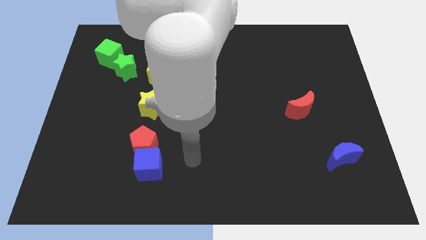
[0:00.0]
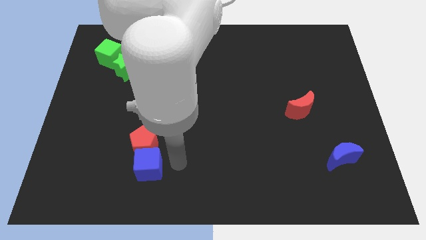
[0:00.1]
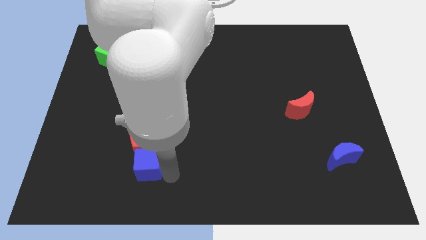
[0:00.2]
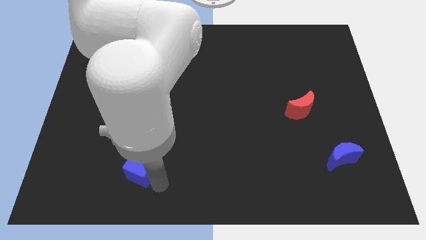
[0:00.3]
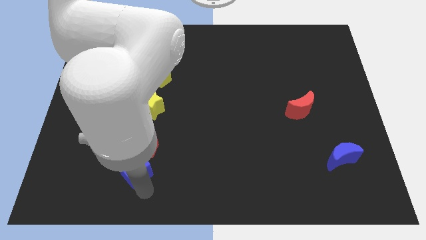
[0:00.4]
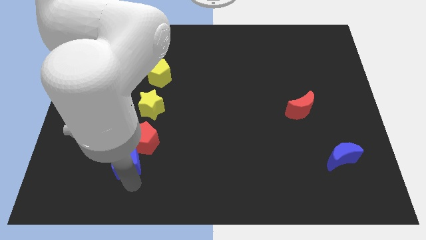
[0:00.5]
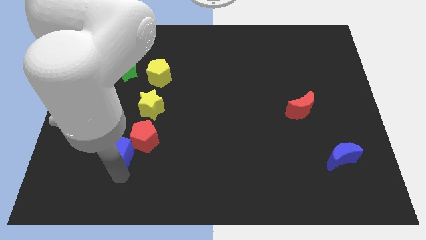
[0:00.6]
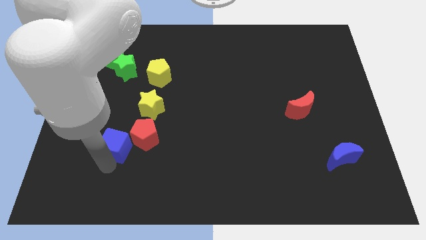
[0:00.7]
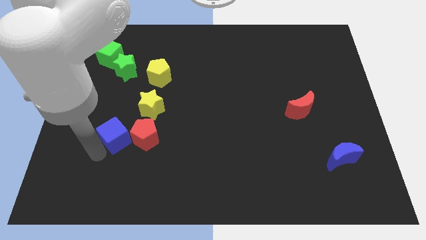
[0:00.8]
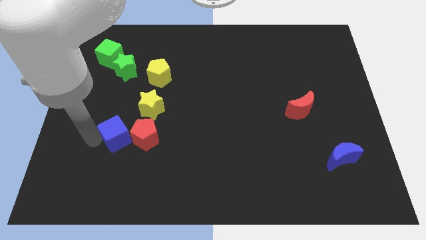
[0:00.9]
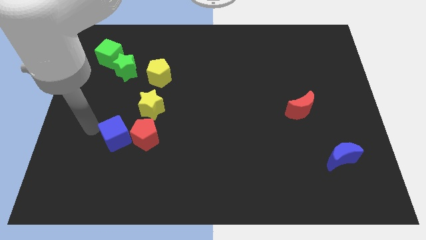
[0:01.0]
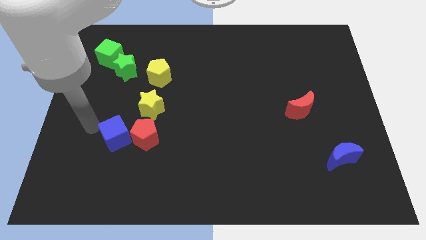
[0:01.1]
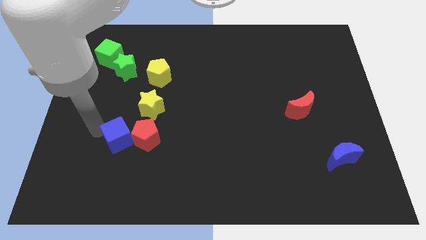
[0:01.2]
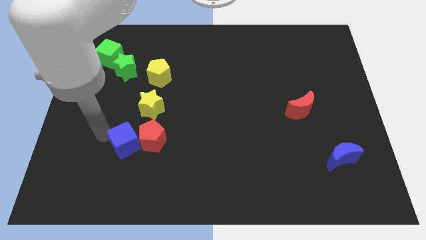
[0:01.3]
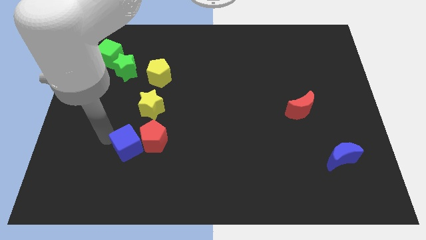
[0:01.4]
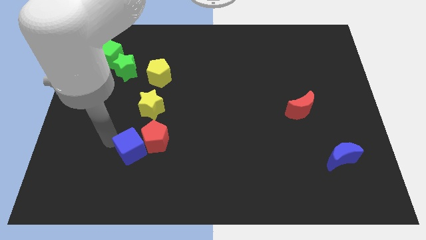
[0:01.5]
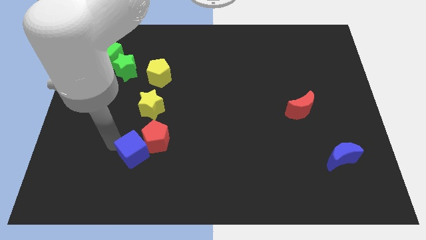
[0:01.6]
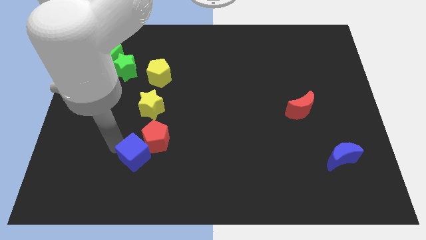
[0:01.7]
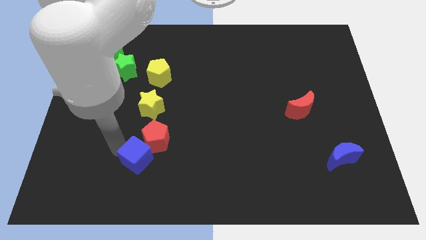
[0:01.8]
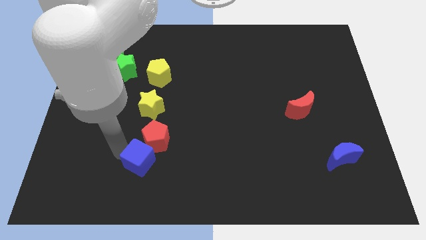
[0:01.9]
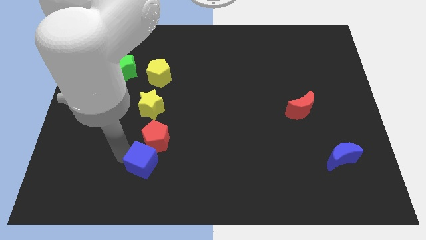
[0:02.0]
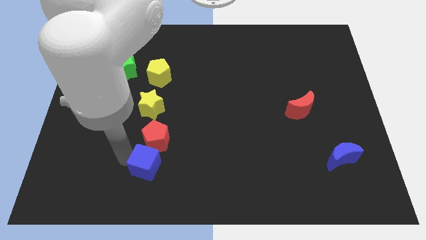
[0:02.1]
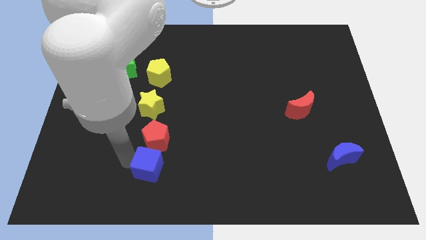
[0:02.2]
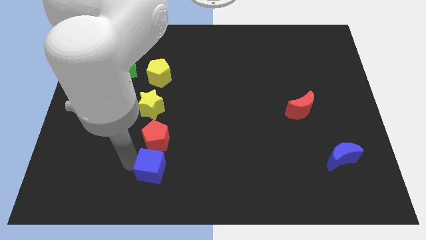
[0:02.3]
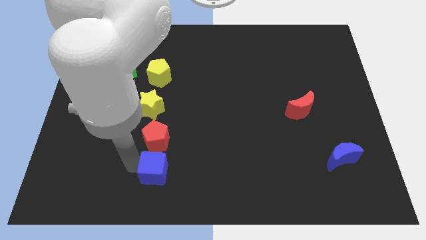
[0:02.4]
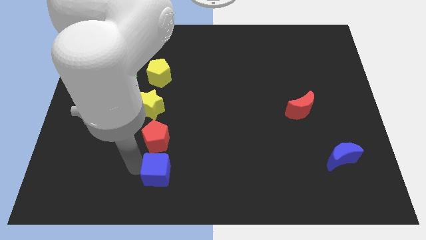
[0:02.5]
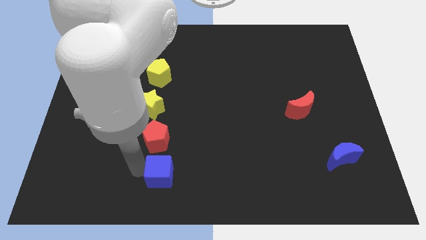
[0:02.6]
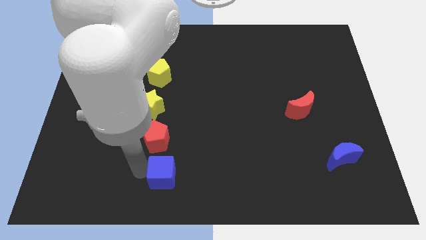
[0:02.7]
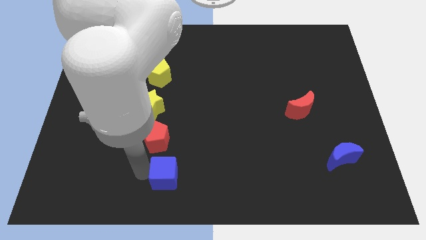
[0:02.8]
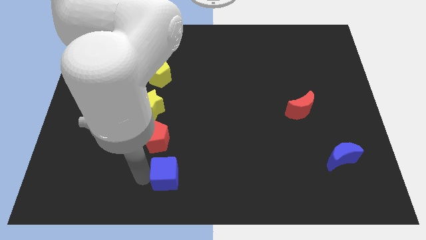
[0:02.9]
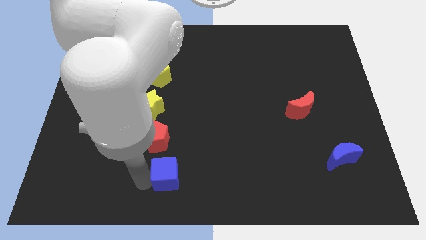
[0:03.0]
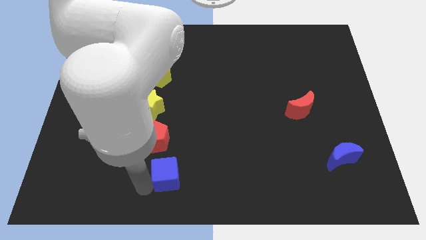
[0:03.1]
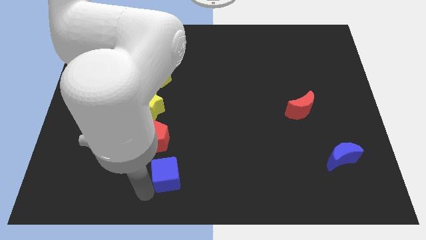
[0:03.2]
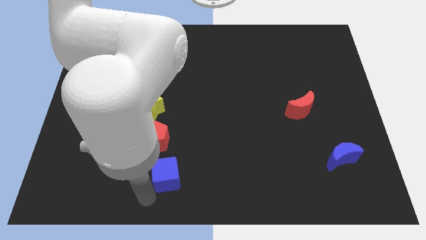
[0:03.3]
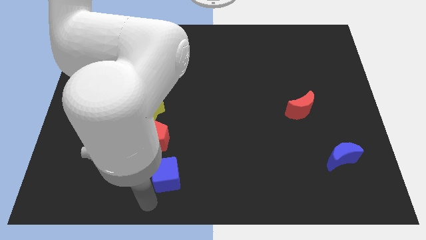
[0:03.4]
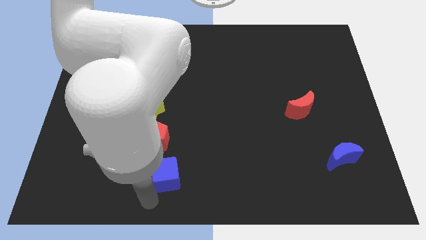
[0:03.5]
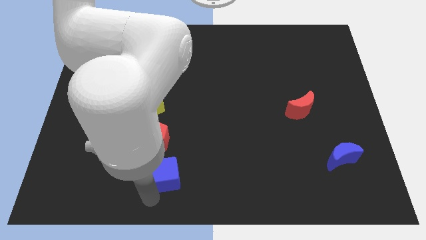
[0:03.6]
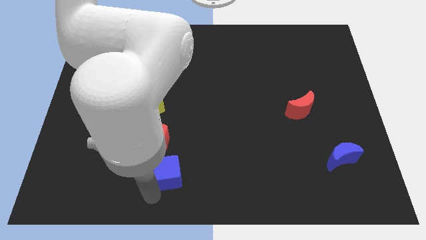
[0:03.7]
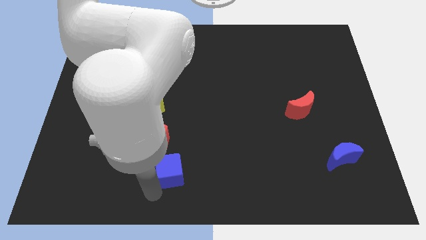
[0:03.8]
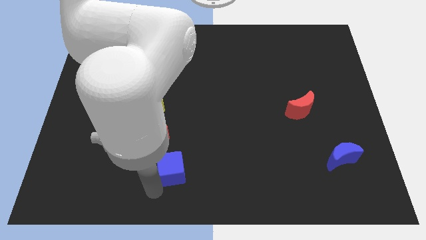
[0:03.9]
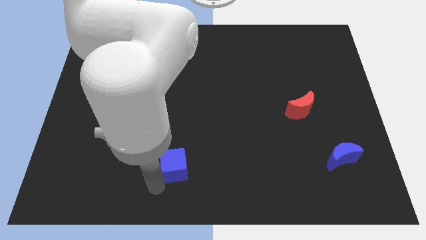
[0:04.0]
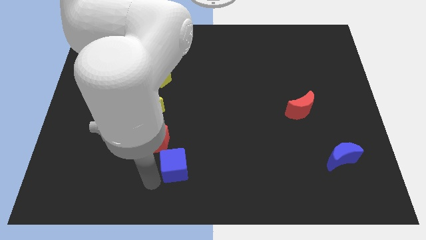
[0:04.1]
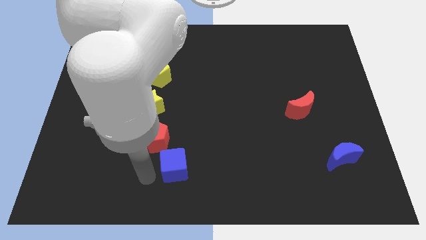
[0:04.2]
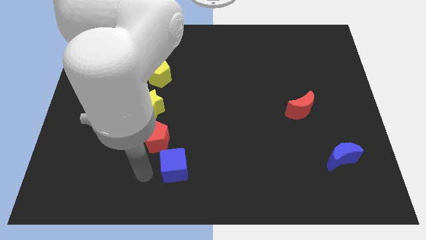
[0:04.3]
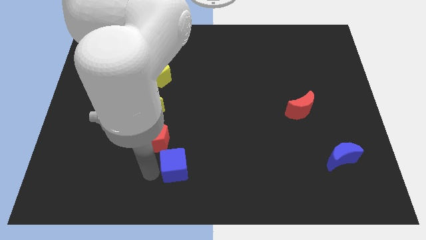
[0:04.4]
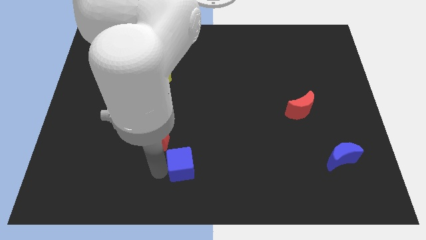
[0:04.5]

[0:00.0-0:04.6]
slightly slide the blue cube right

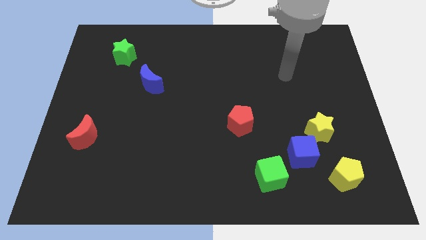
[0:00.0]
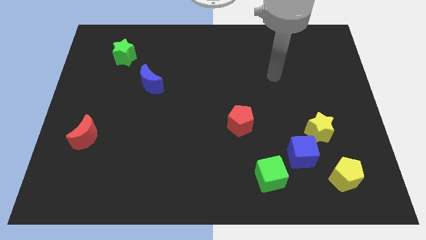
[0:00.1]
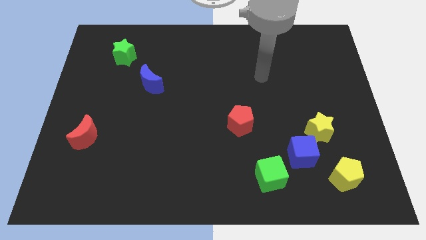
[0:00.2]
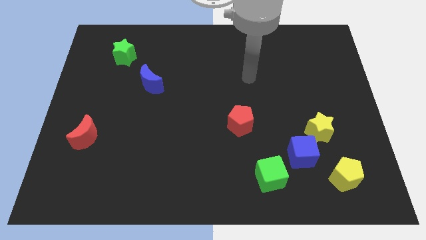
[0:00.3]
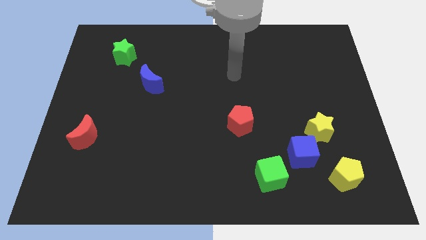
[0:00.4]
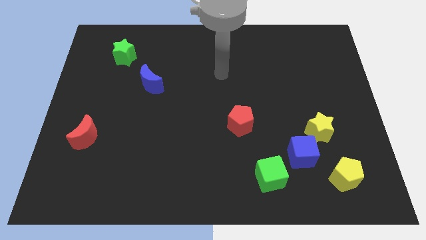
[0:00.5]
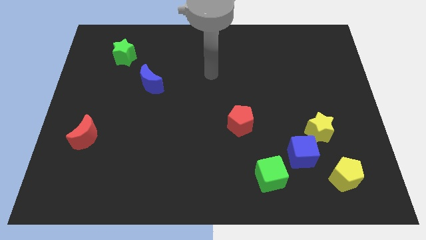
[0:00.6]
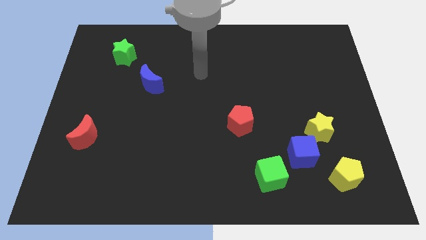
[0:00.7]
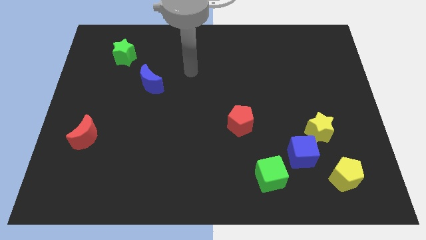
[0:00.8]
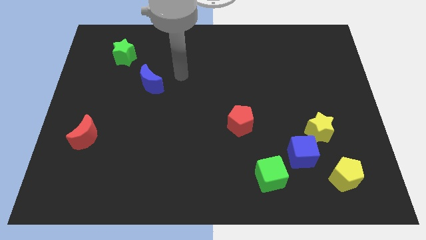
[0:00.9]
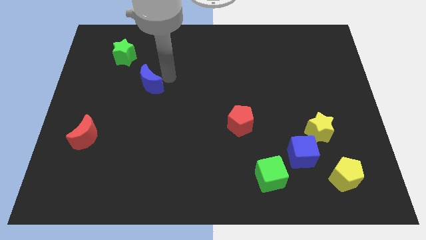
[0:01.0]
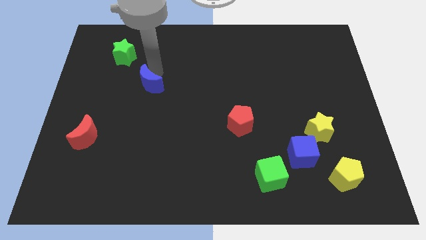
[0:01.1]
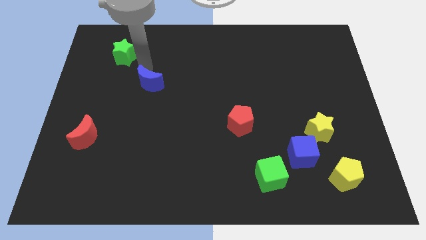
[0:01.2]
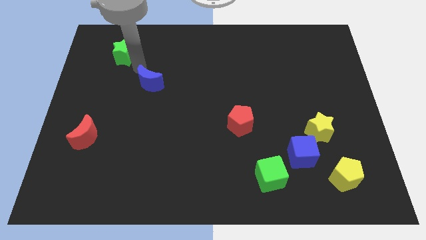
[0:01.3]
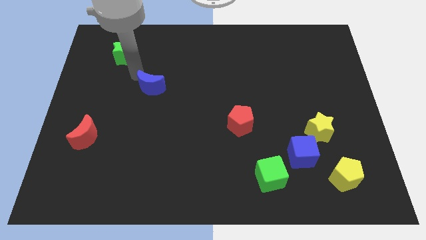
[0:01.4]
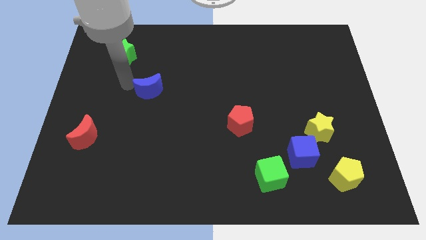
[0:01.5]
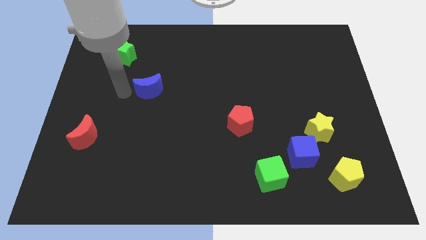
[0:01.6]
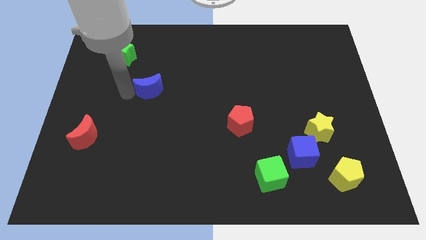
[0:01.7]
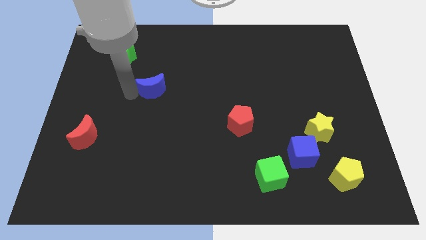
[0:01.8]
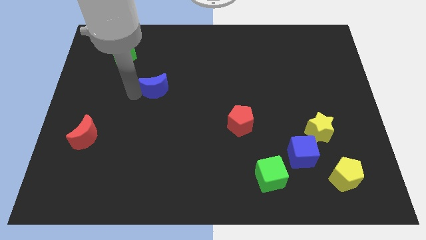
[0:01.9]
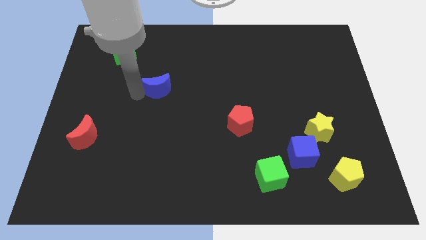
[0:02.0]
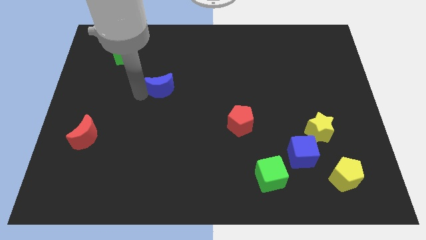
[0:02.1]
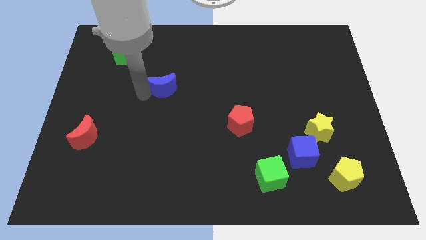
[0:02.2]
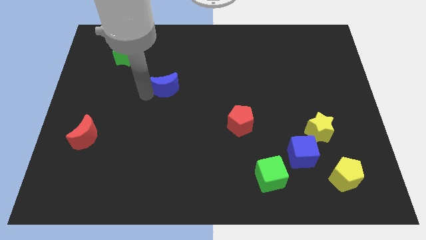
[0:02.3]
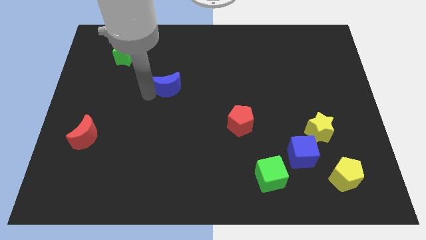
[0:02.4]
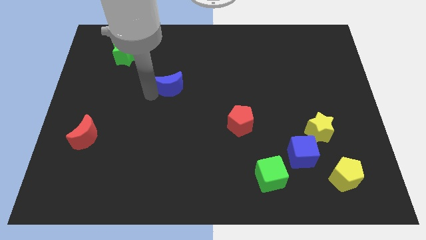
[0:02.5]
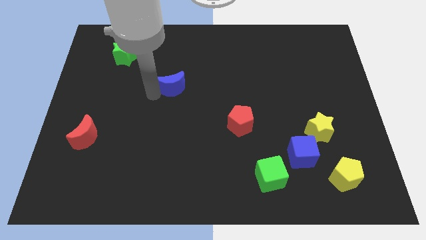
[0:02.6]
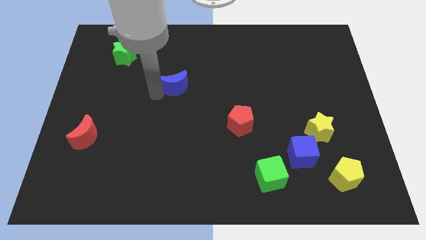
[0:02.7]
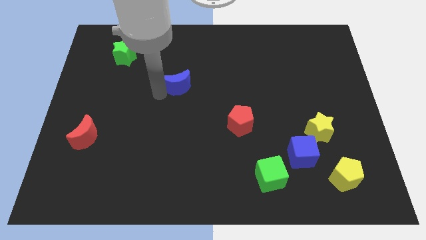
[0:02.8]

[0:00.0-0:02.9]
slide the blue moon to the right somewhat

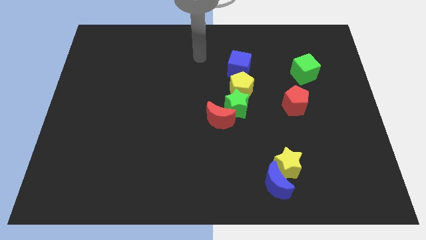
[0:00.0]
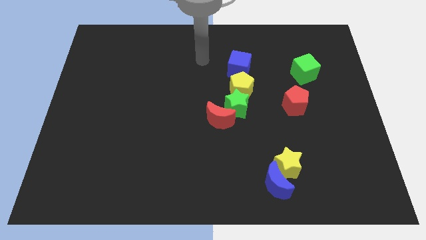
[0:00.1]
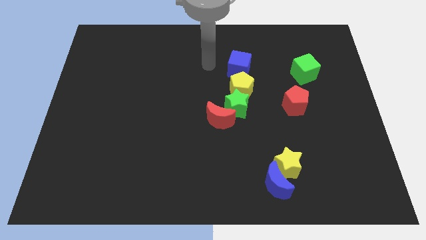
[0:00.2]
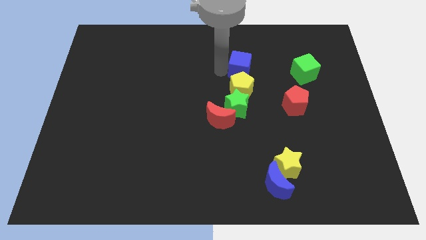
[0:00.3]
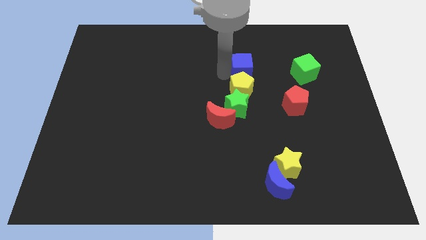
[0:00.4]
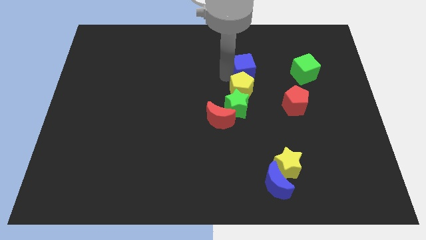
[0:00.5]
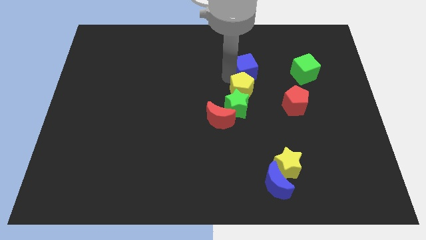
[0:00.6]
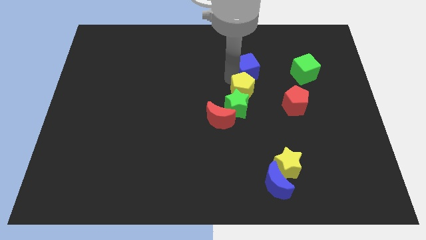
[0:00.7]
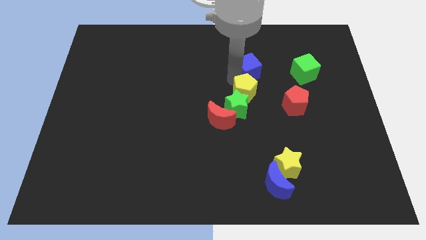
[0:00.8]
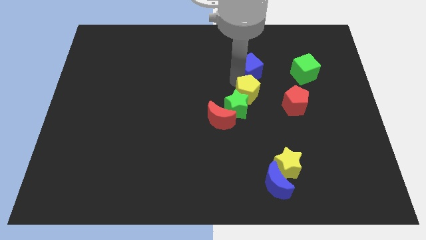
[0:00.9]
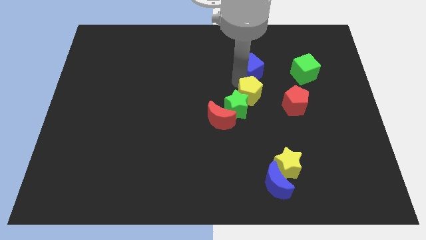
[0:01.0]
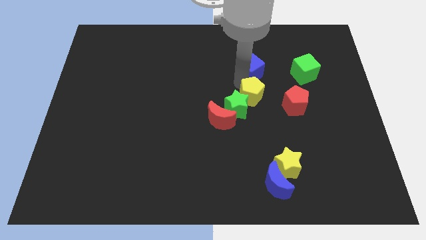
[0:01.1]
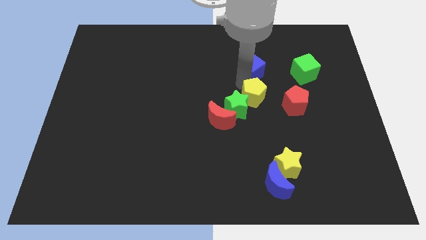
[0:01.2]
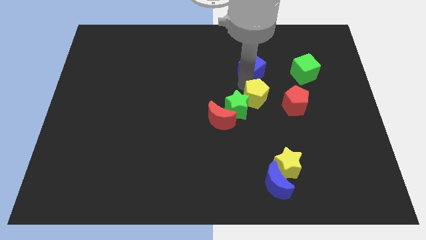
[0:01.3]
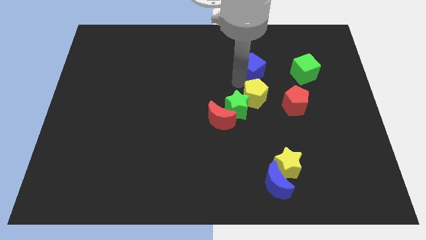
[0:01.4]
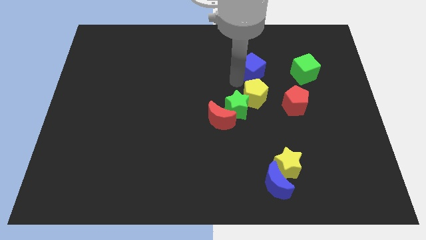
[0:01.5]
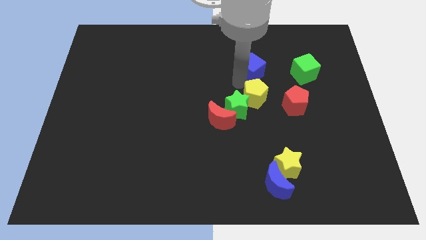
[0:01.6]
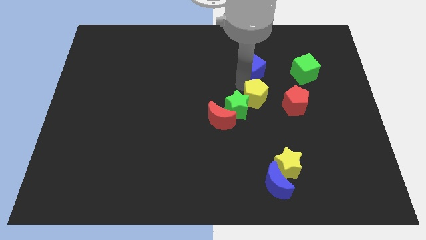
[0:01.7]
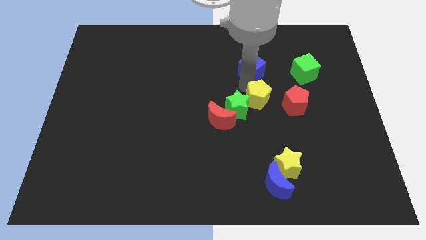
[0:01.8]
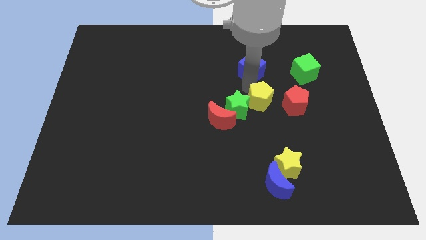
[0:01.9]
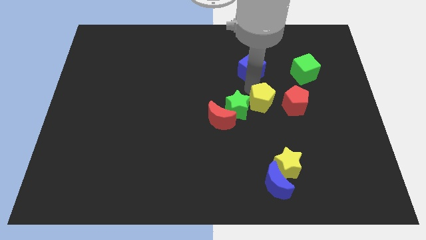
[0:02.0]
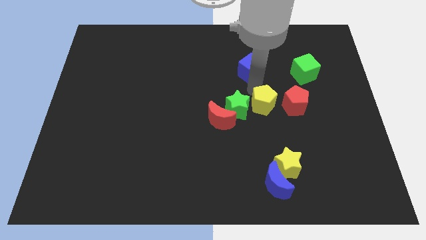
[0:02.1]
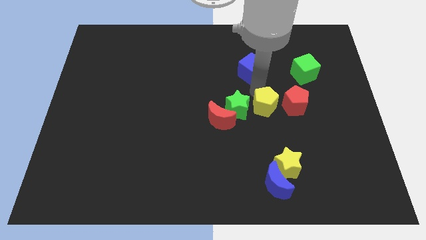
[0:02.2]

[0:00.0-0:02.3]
slightly slide the yellow pentagon downwards and right diagonally
